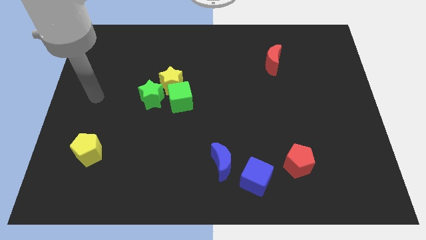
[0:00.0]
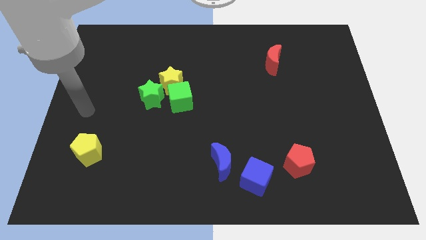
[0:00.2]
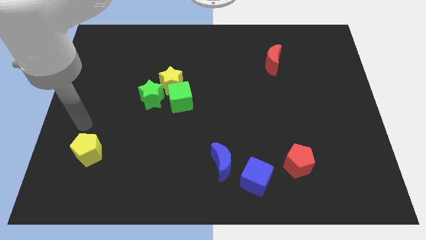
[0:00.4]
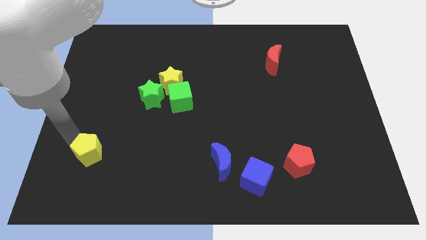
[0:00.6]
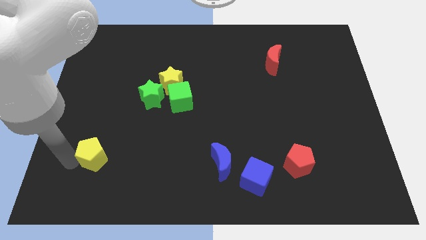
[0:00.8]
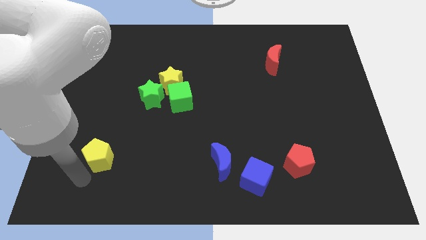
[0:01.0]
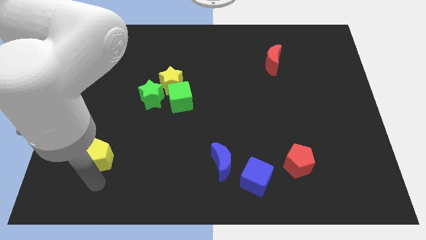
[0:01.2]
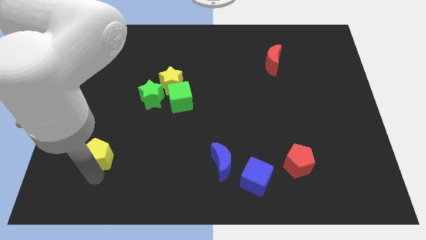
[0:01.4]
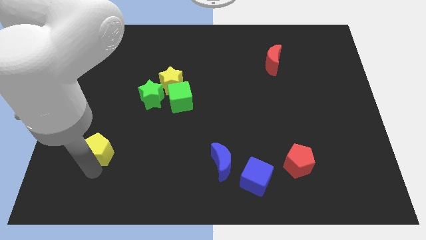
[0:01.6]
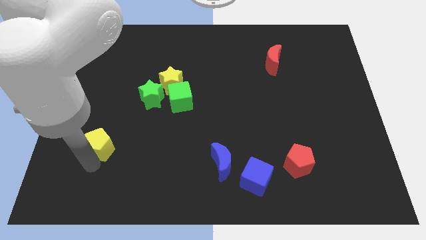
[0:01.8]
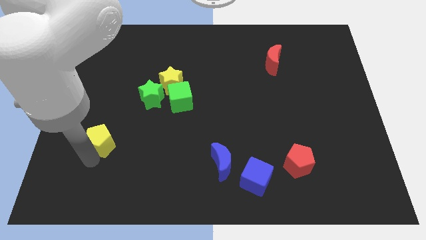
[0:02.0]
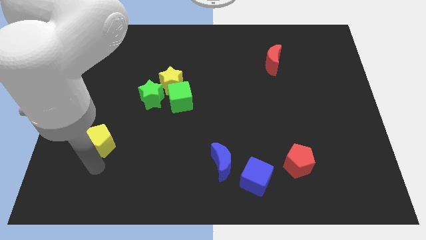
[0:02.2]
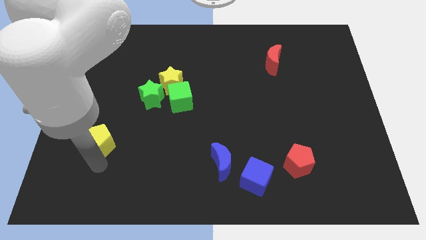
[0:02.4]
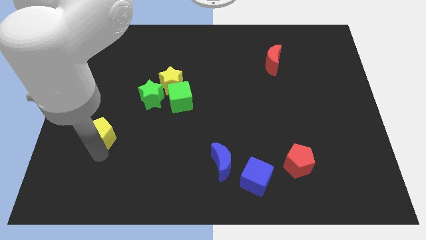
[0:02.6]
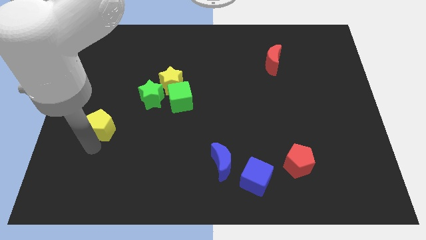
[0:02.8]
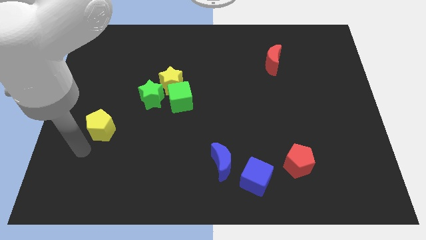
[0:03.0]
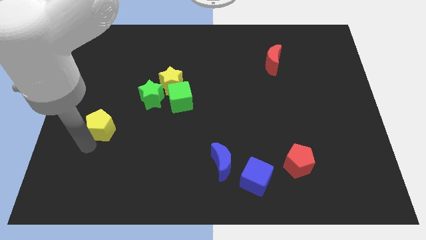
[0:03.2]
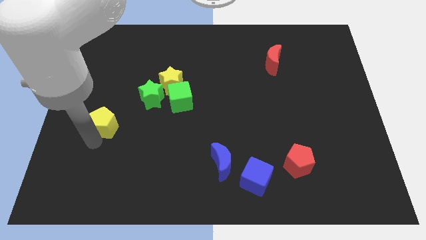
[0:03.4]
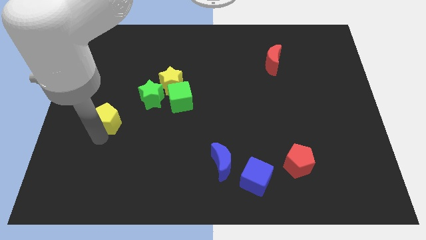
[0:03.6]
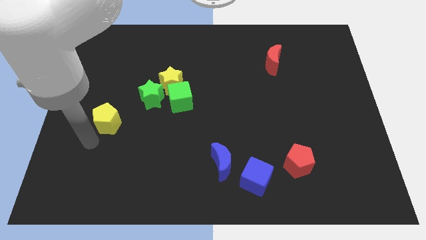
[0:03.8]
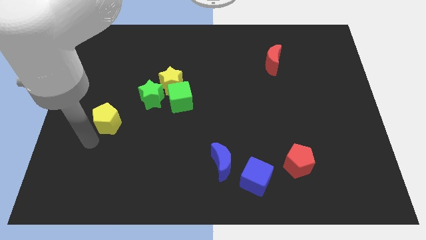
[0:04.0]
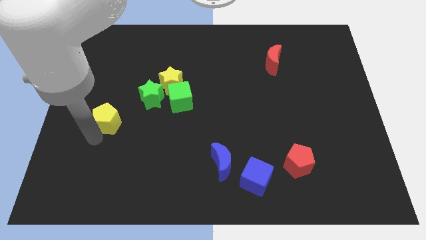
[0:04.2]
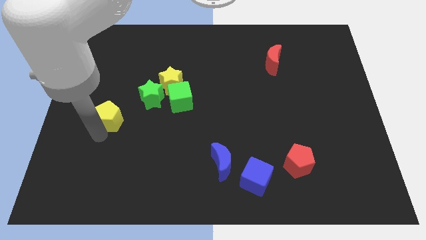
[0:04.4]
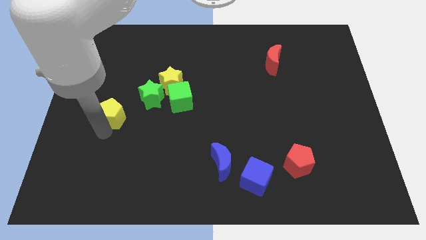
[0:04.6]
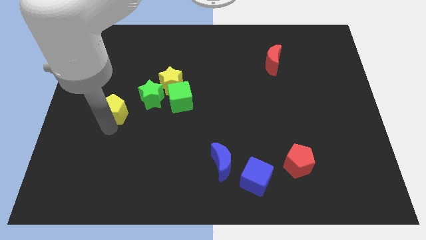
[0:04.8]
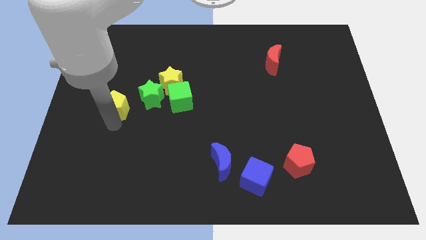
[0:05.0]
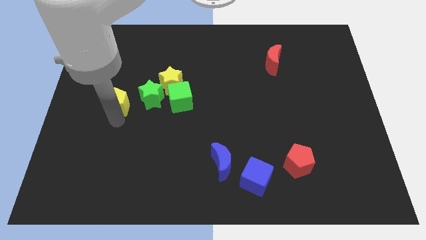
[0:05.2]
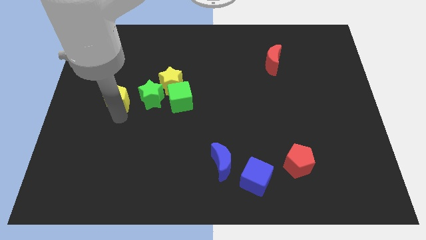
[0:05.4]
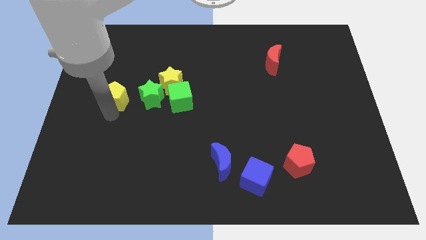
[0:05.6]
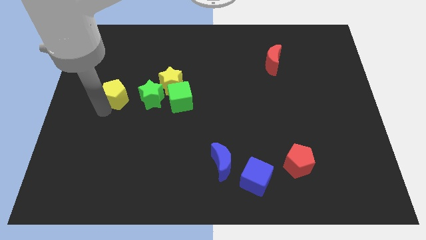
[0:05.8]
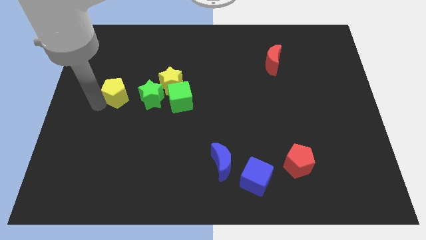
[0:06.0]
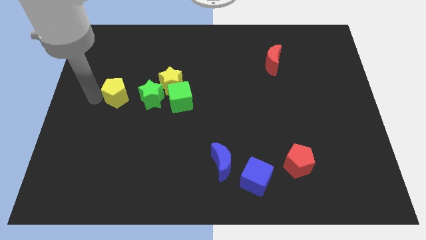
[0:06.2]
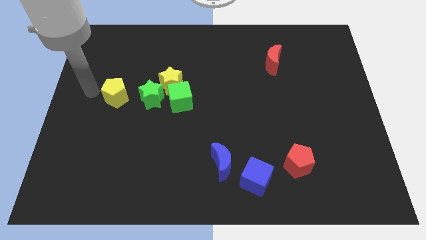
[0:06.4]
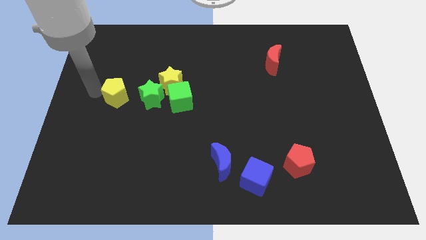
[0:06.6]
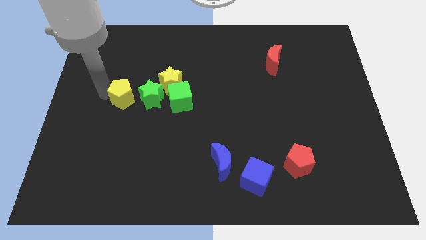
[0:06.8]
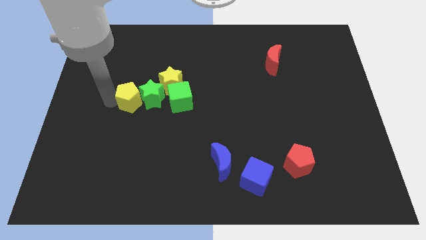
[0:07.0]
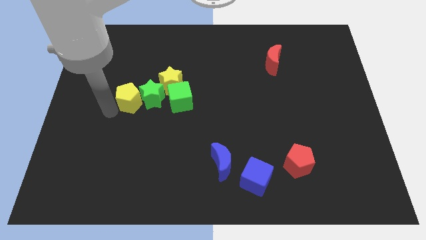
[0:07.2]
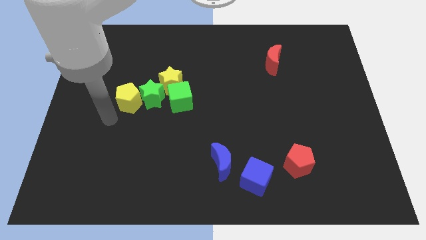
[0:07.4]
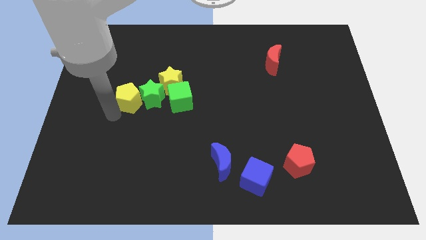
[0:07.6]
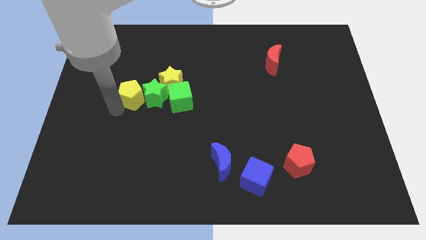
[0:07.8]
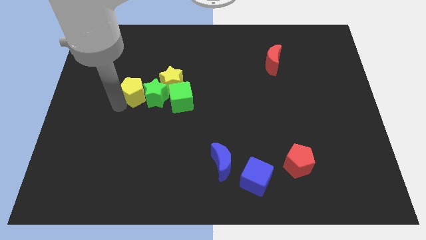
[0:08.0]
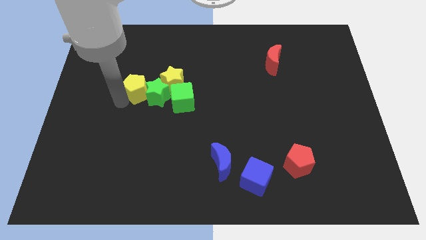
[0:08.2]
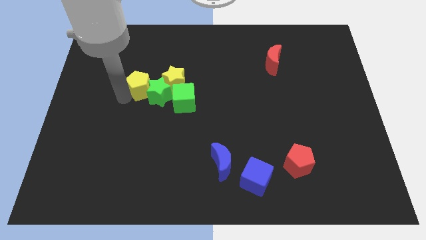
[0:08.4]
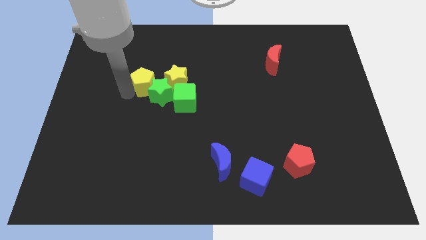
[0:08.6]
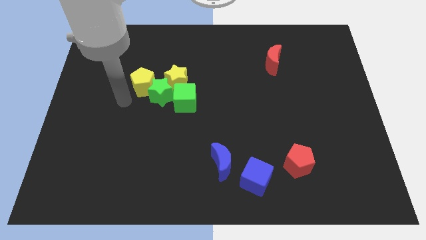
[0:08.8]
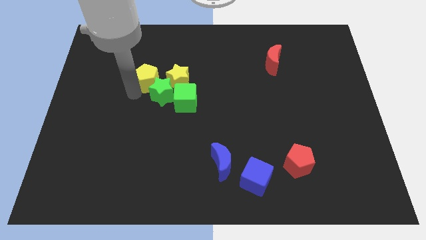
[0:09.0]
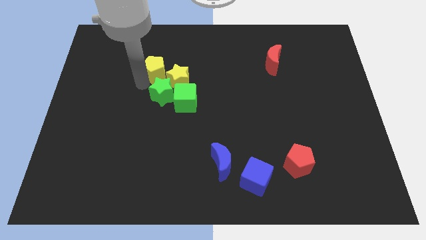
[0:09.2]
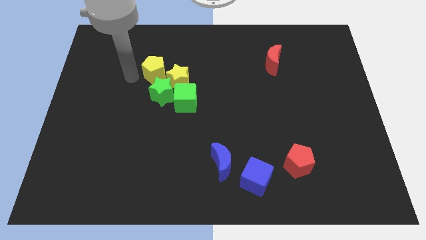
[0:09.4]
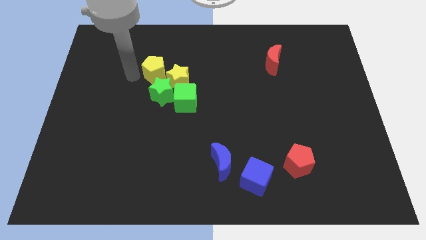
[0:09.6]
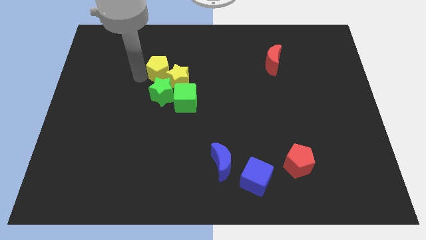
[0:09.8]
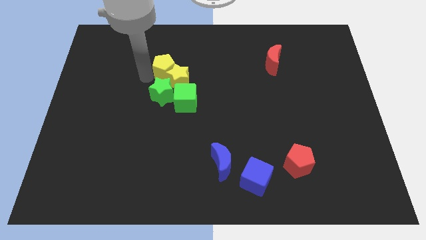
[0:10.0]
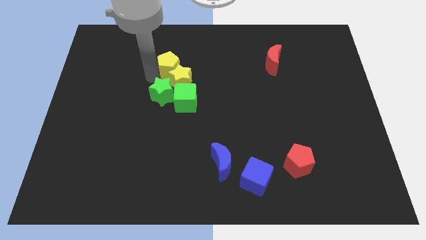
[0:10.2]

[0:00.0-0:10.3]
push the yellow pentagon above the green cube

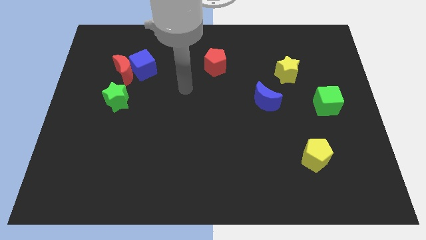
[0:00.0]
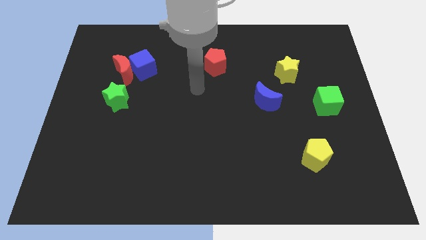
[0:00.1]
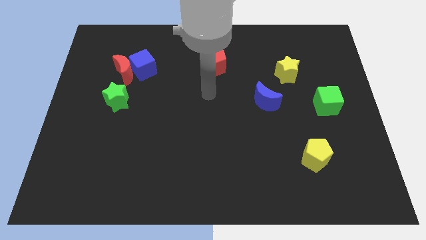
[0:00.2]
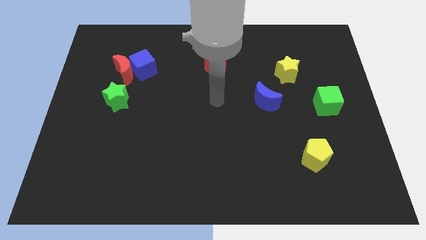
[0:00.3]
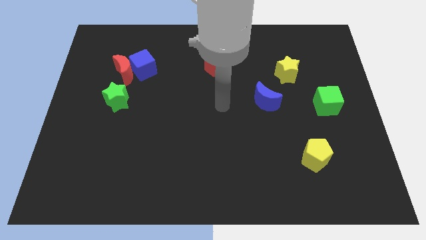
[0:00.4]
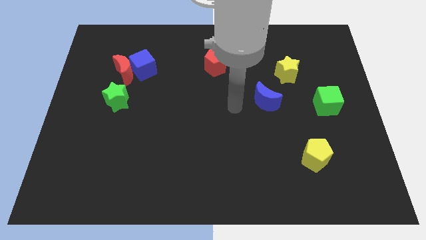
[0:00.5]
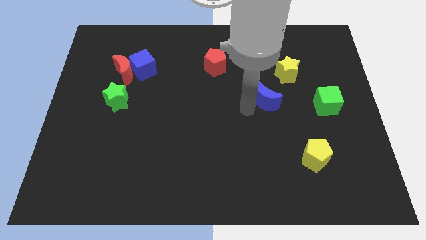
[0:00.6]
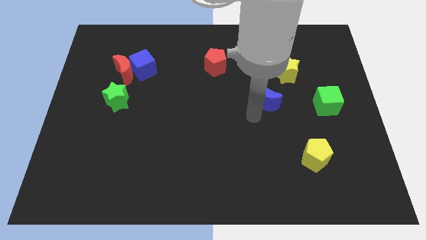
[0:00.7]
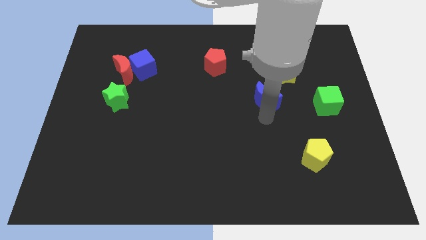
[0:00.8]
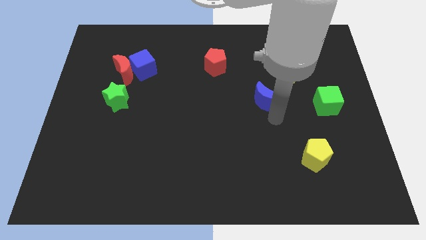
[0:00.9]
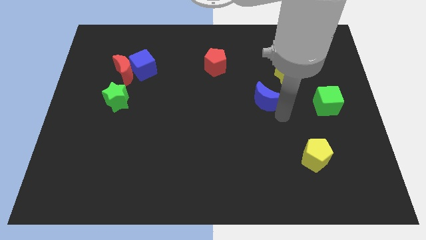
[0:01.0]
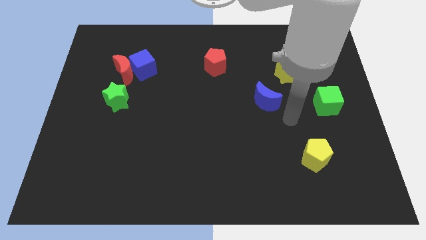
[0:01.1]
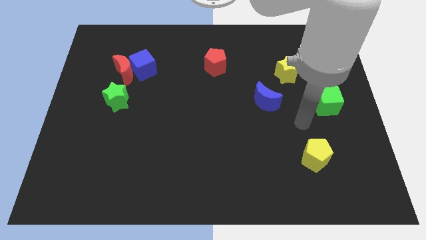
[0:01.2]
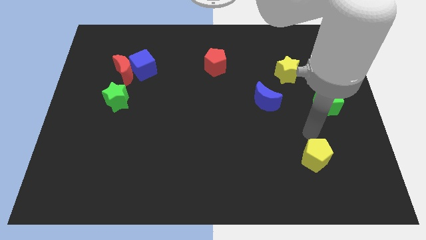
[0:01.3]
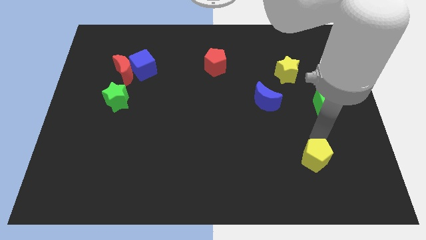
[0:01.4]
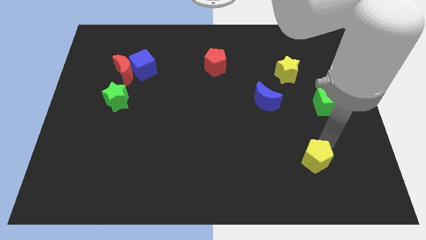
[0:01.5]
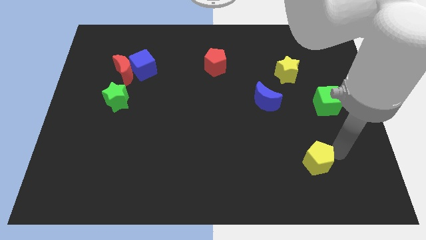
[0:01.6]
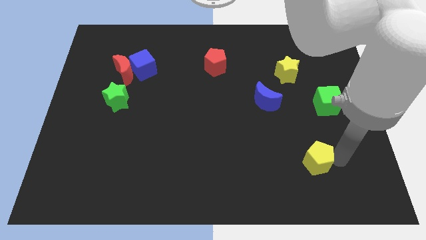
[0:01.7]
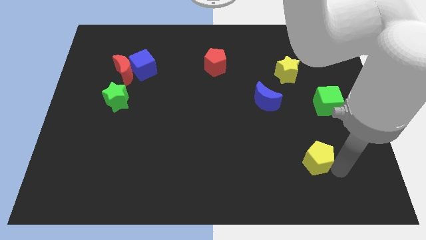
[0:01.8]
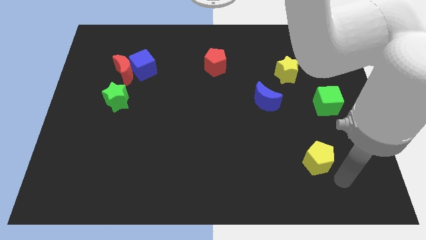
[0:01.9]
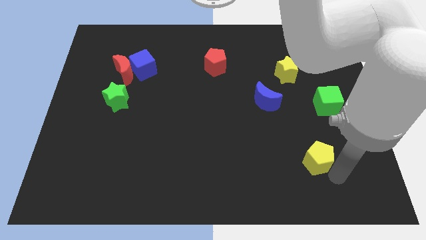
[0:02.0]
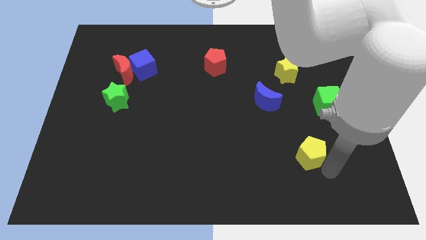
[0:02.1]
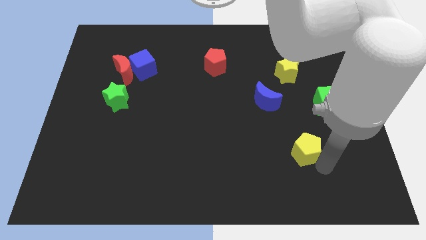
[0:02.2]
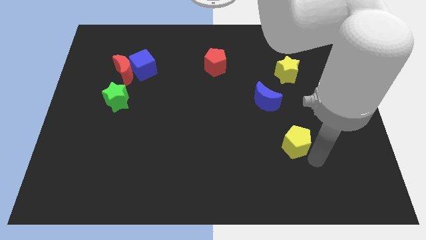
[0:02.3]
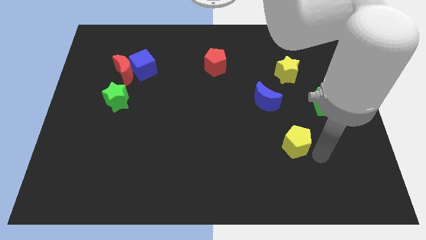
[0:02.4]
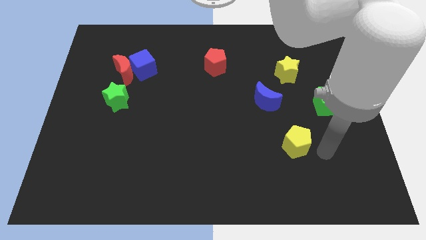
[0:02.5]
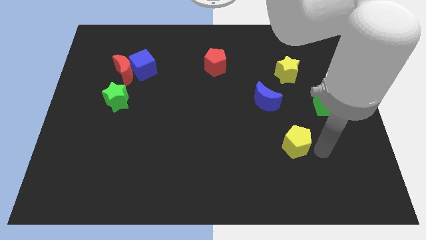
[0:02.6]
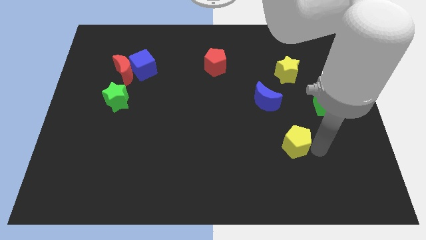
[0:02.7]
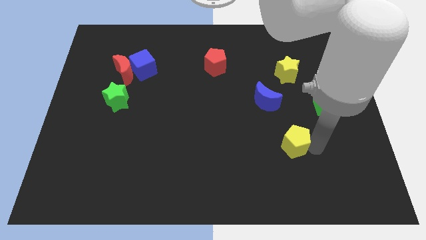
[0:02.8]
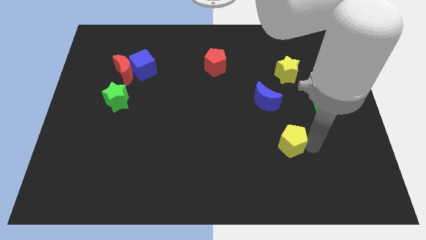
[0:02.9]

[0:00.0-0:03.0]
push the yellow pentagon to the bottom side of the blue moon
